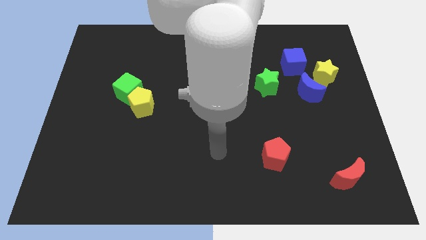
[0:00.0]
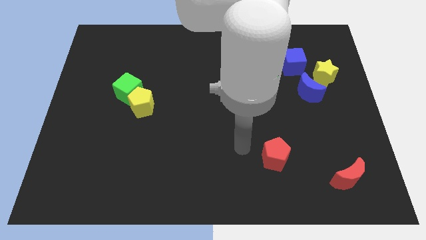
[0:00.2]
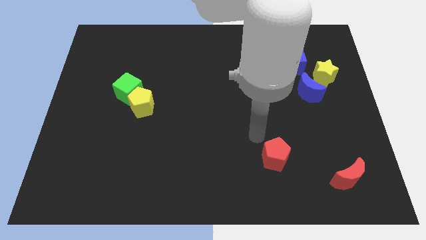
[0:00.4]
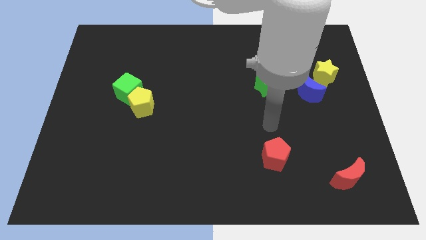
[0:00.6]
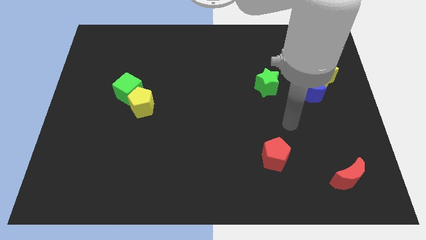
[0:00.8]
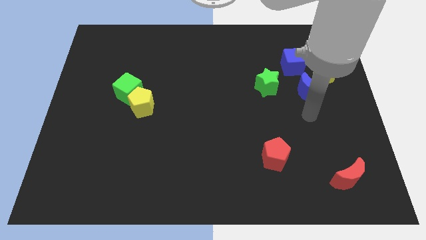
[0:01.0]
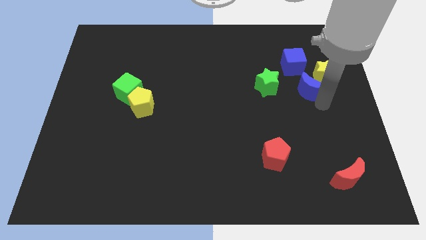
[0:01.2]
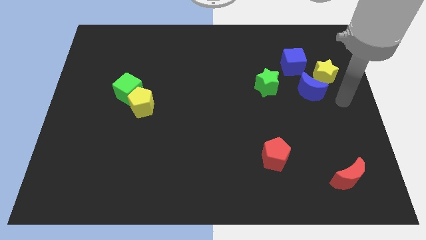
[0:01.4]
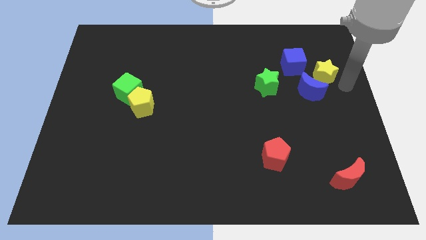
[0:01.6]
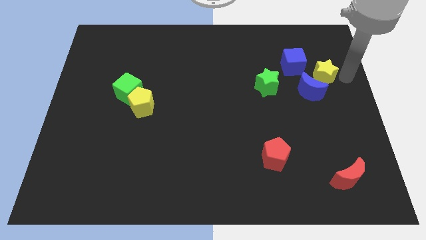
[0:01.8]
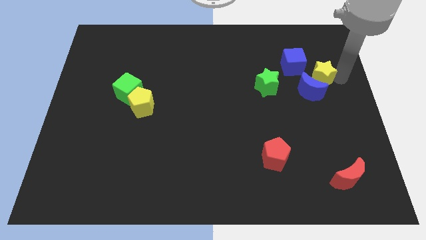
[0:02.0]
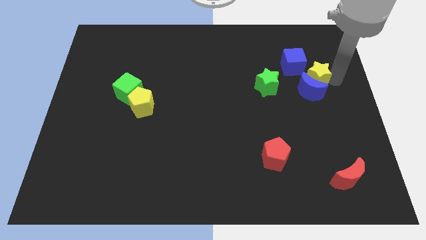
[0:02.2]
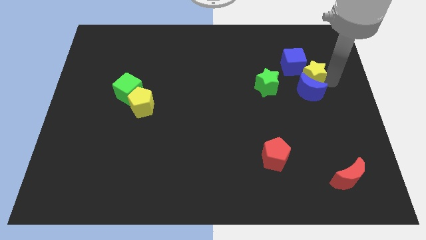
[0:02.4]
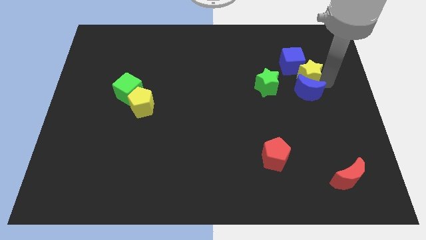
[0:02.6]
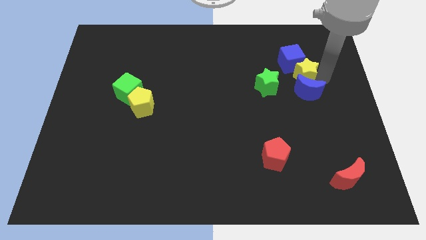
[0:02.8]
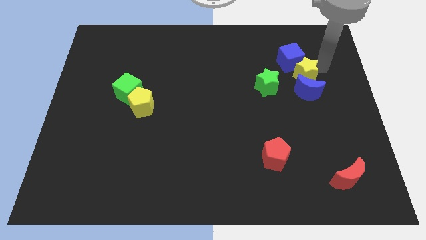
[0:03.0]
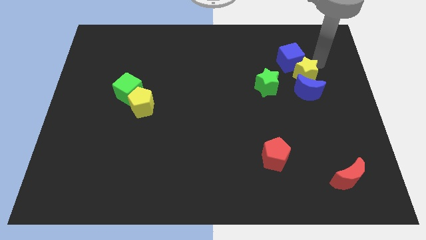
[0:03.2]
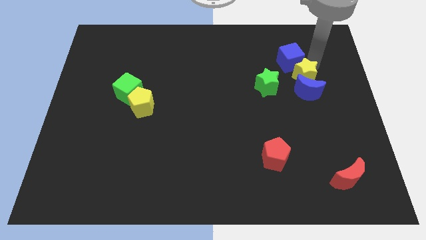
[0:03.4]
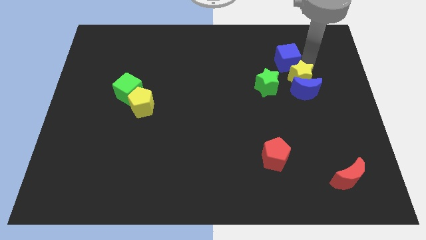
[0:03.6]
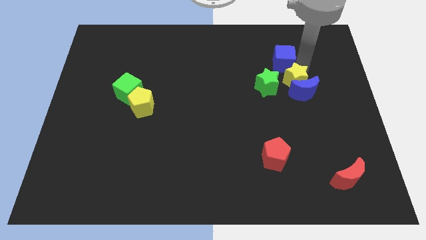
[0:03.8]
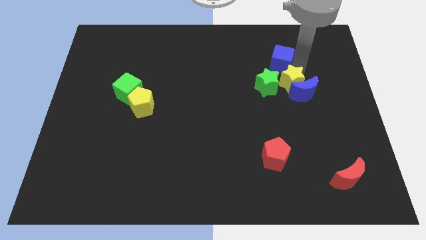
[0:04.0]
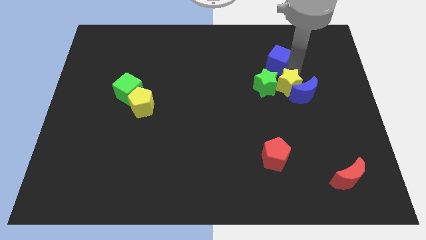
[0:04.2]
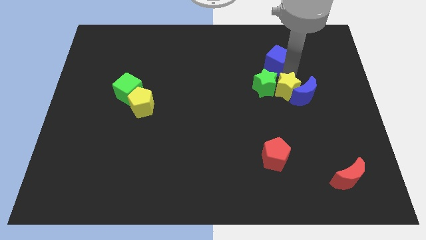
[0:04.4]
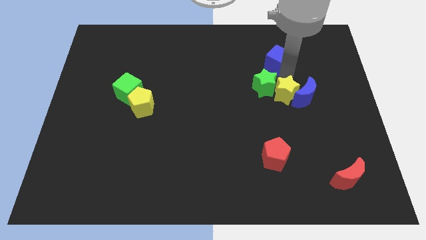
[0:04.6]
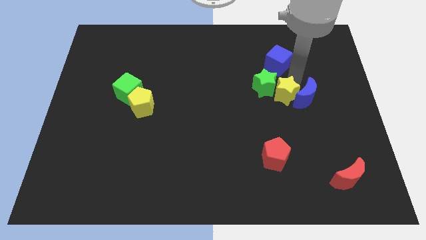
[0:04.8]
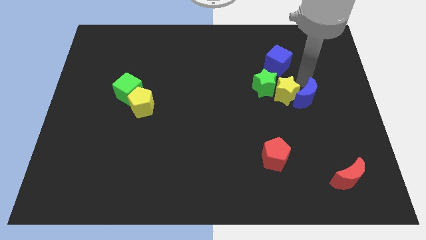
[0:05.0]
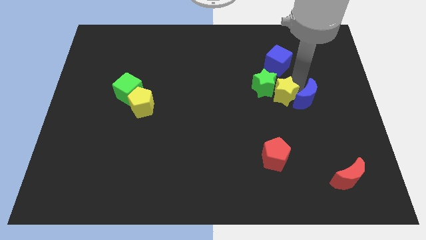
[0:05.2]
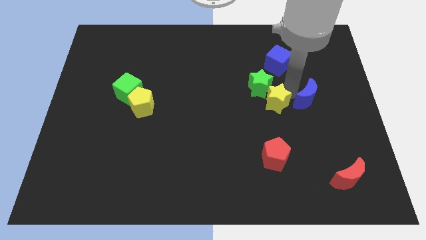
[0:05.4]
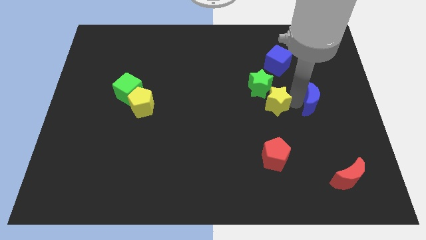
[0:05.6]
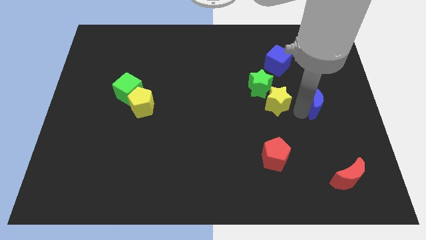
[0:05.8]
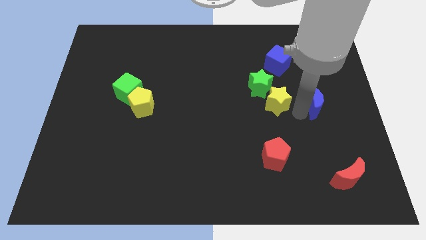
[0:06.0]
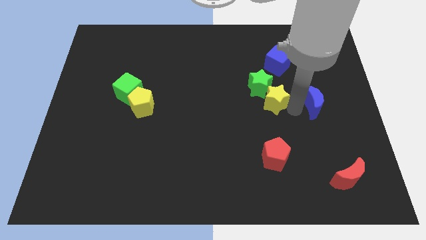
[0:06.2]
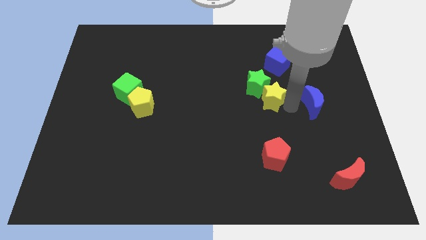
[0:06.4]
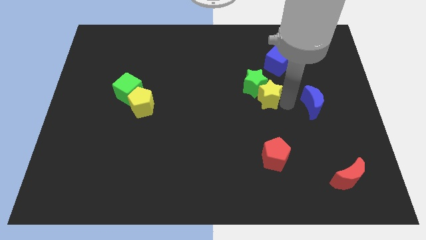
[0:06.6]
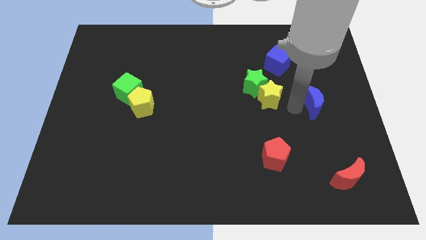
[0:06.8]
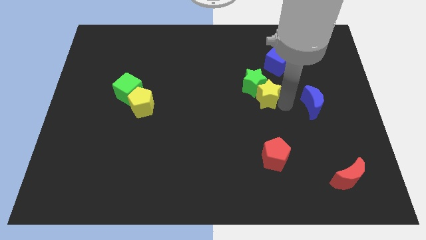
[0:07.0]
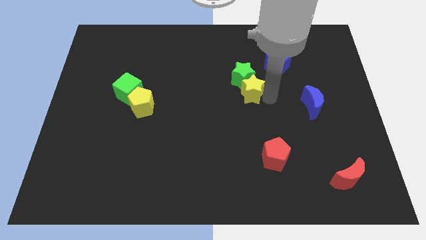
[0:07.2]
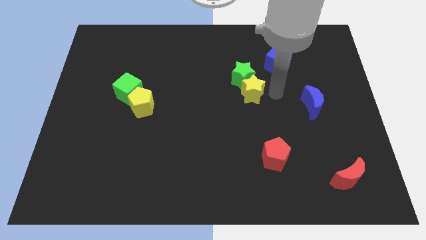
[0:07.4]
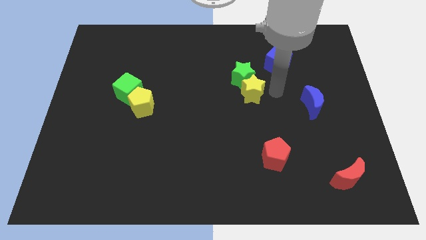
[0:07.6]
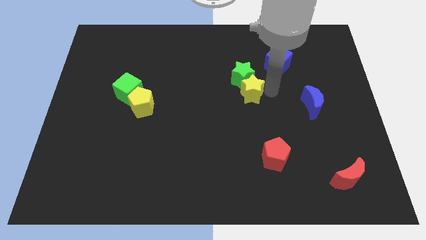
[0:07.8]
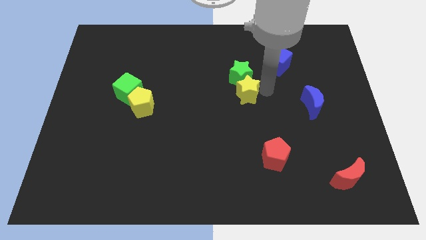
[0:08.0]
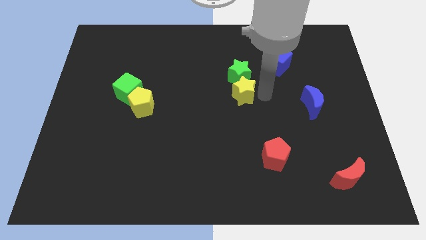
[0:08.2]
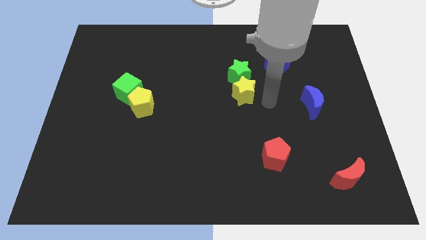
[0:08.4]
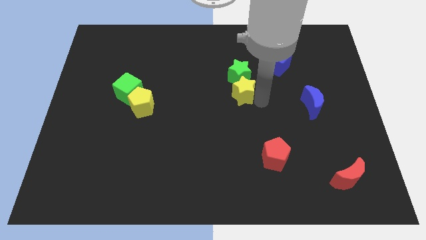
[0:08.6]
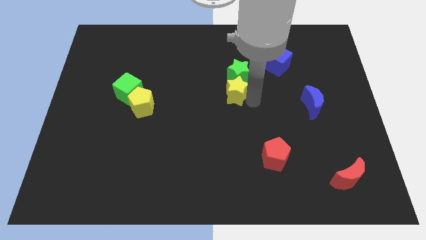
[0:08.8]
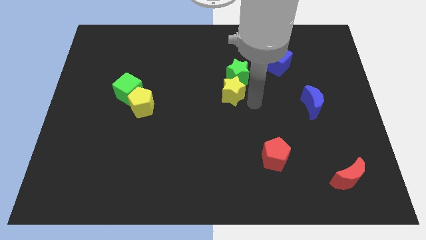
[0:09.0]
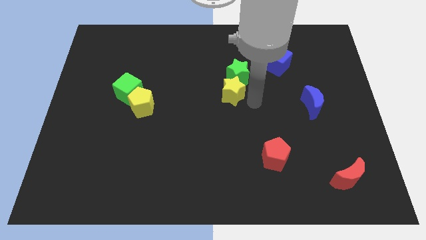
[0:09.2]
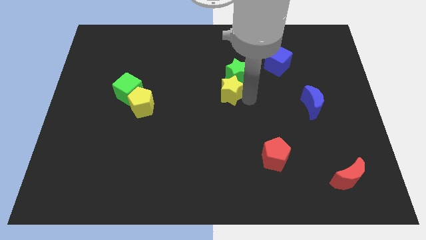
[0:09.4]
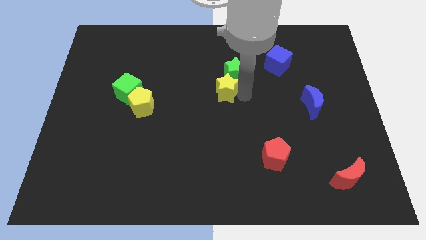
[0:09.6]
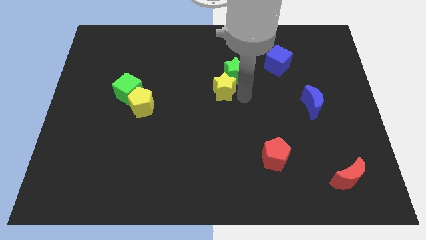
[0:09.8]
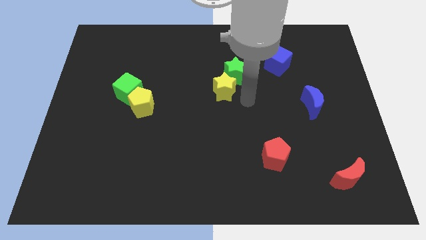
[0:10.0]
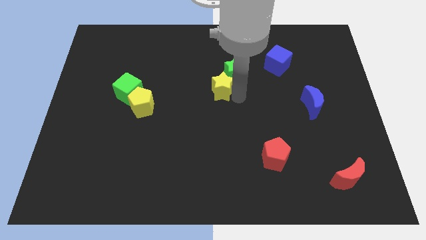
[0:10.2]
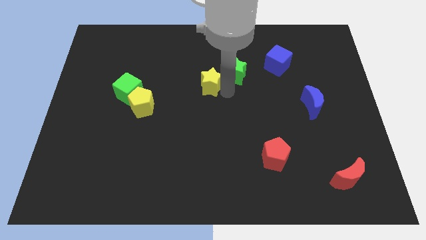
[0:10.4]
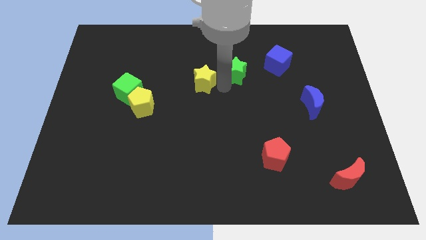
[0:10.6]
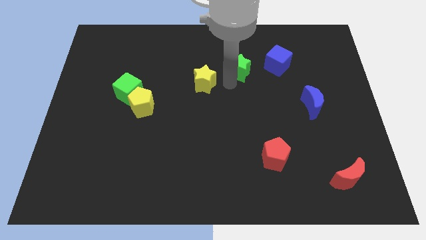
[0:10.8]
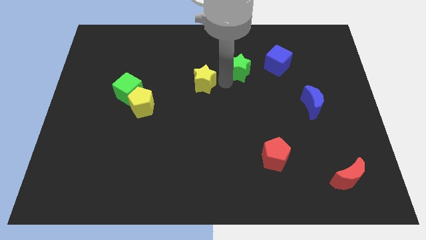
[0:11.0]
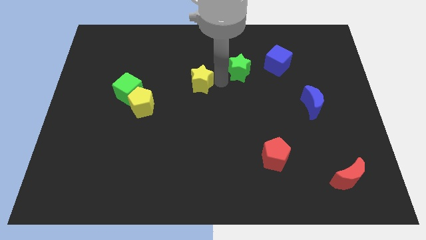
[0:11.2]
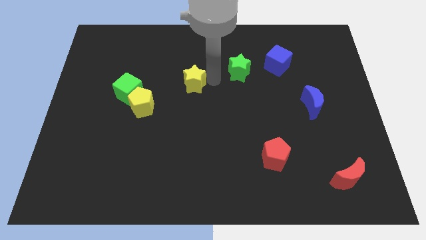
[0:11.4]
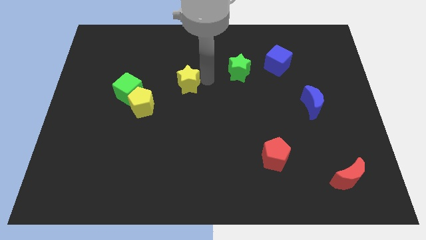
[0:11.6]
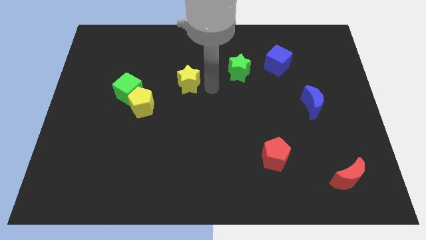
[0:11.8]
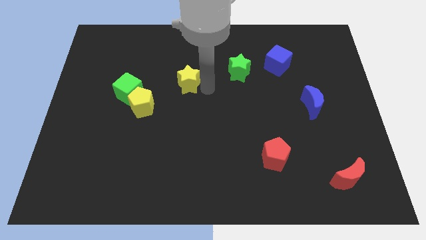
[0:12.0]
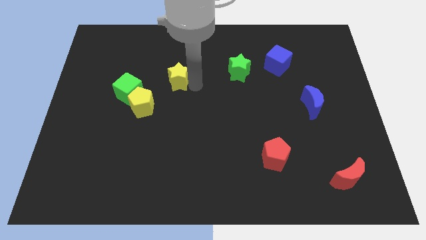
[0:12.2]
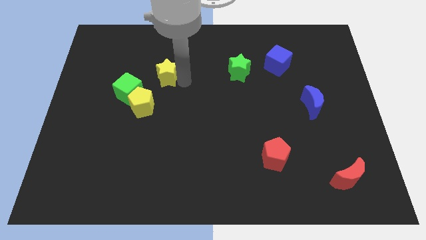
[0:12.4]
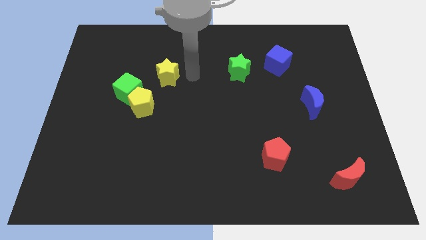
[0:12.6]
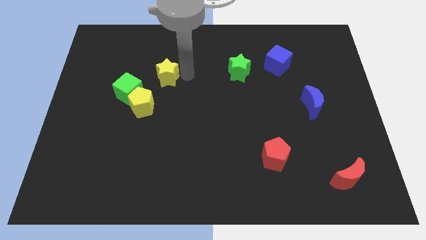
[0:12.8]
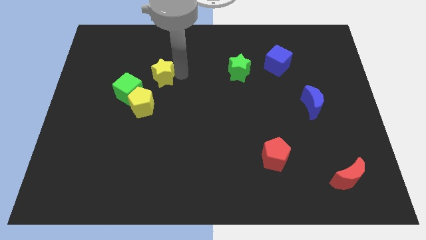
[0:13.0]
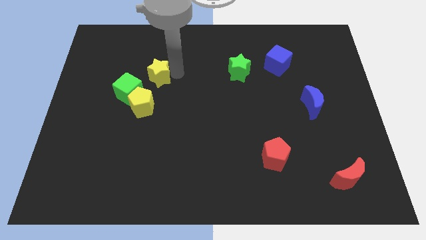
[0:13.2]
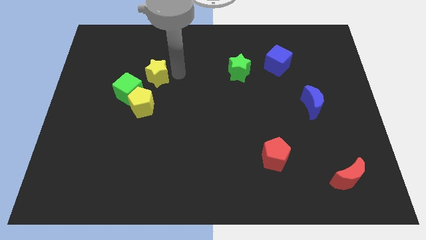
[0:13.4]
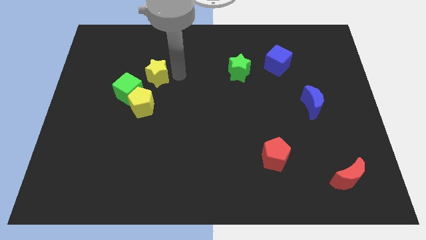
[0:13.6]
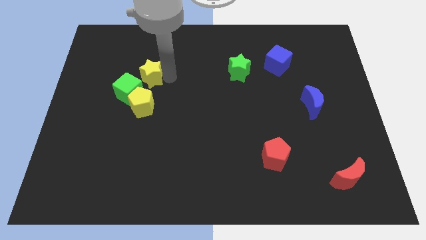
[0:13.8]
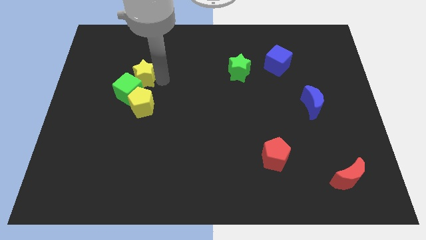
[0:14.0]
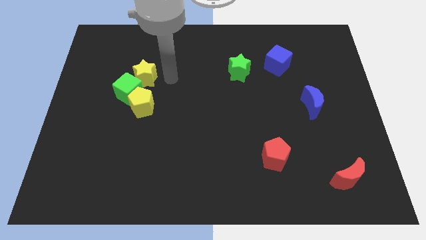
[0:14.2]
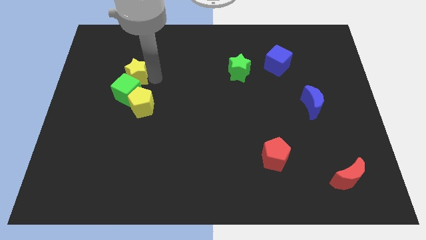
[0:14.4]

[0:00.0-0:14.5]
move the yellow star to the top left side of the green cube
